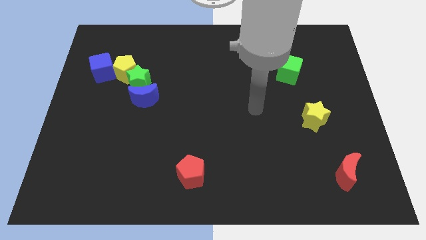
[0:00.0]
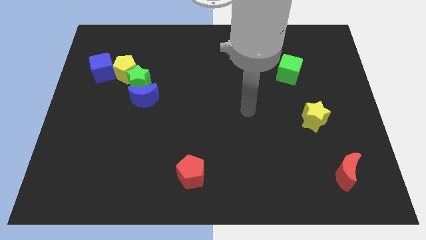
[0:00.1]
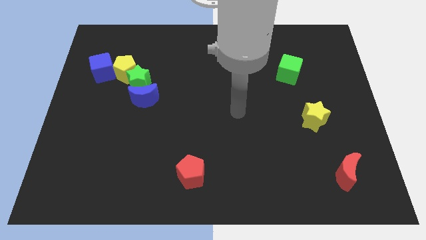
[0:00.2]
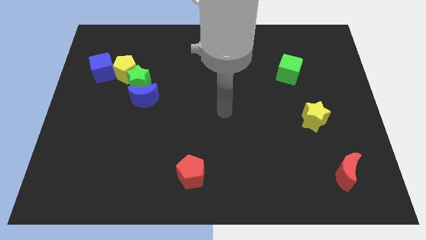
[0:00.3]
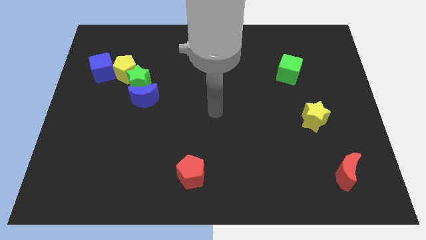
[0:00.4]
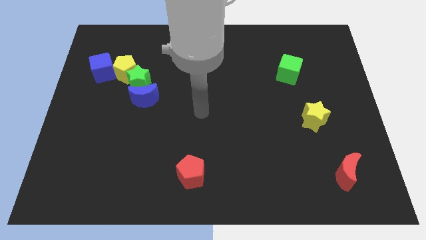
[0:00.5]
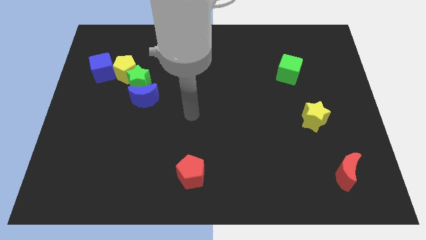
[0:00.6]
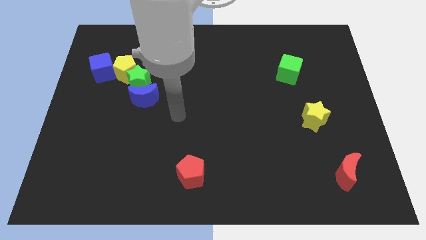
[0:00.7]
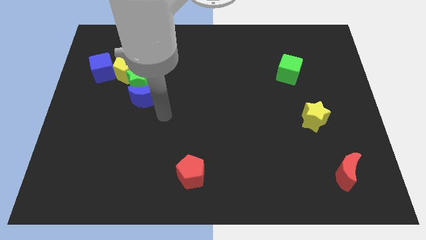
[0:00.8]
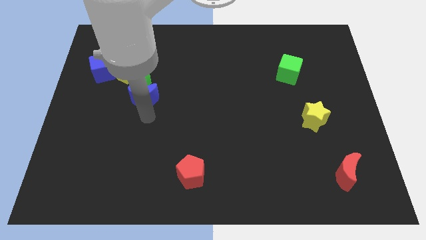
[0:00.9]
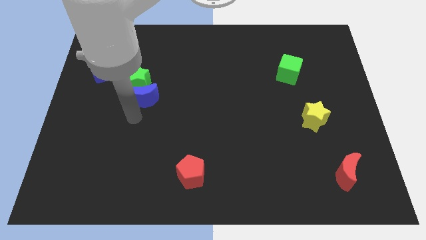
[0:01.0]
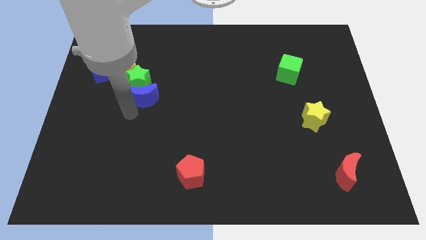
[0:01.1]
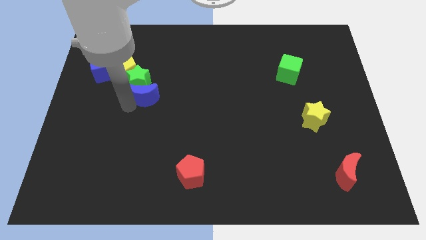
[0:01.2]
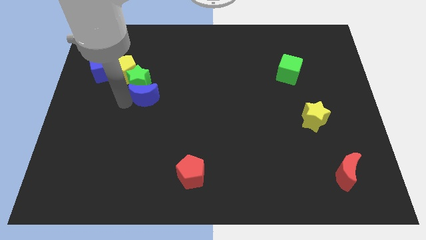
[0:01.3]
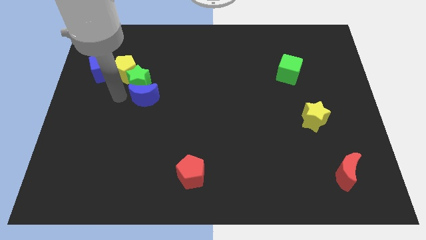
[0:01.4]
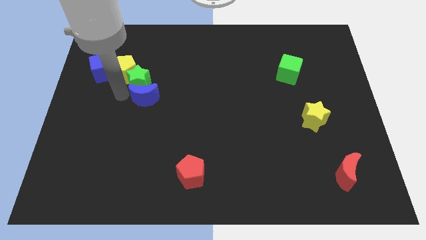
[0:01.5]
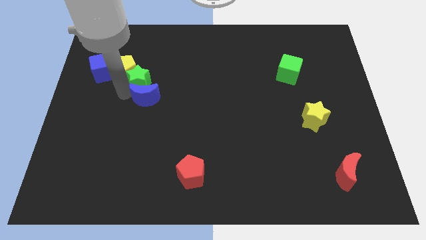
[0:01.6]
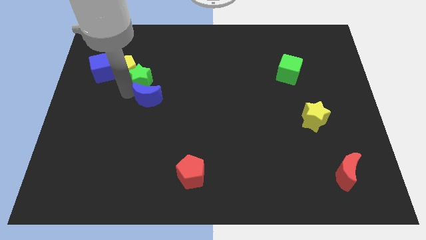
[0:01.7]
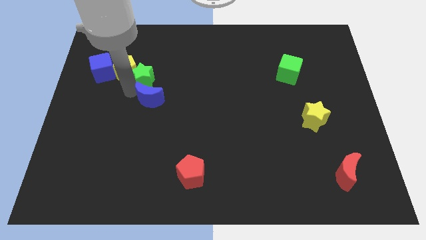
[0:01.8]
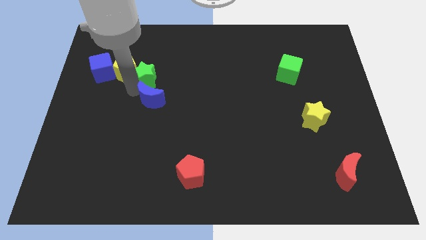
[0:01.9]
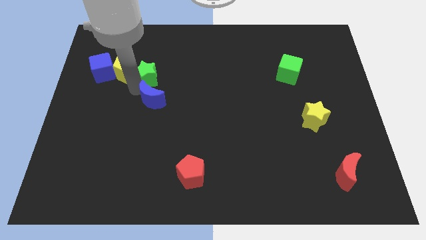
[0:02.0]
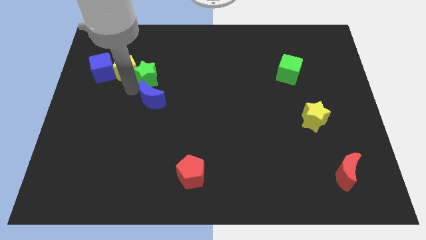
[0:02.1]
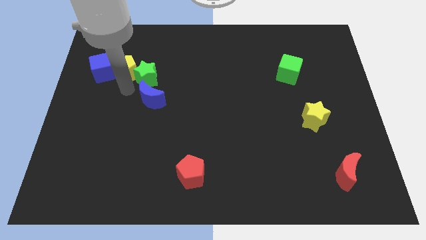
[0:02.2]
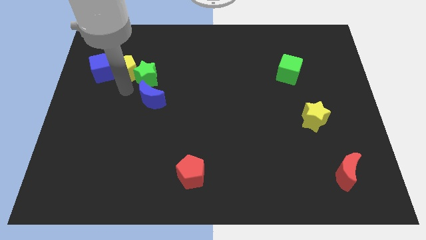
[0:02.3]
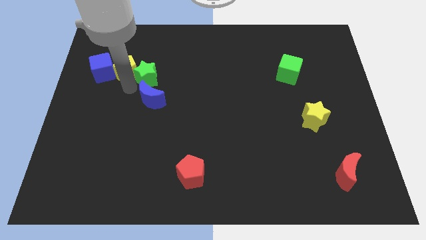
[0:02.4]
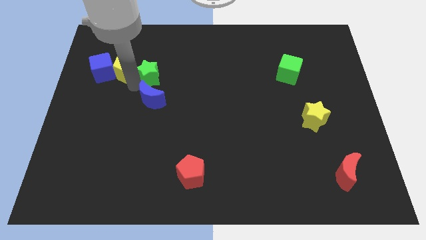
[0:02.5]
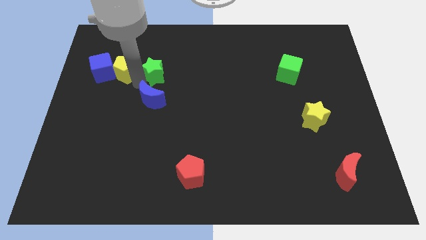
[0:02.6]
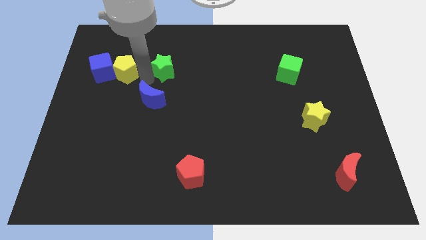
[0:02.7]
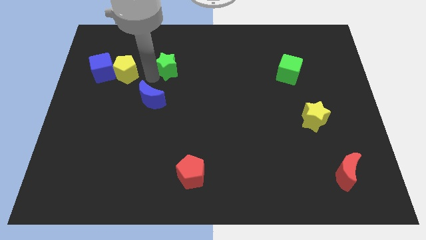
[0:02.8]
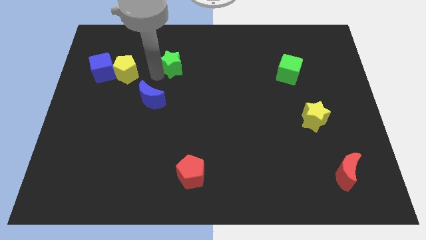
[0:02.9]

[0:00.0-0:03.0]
separate the green star from the yellow pentagon and blue moon

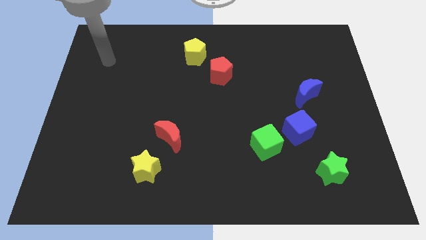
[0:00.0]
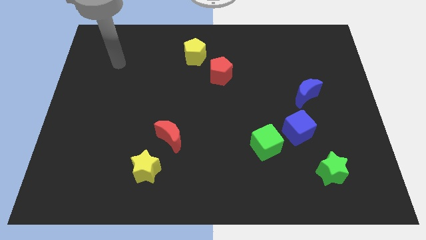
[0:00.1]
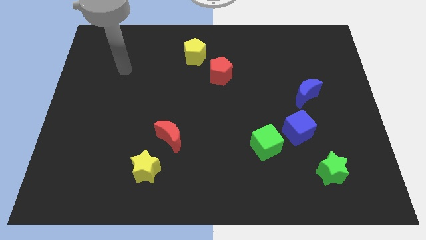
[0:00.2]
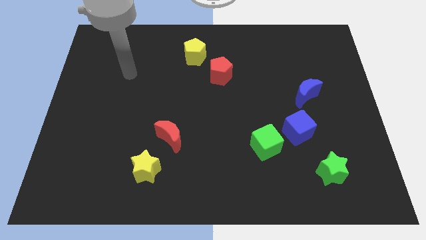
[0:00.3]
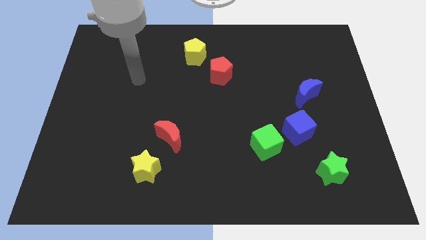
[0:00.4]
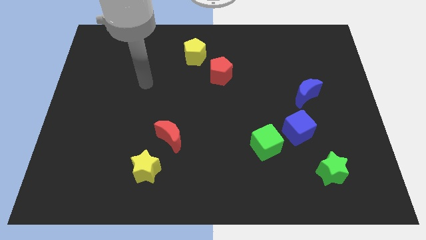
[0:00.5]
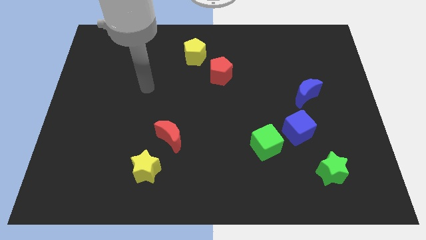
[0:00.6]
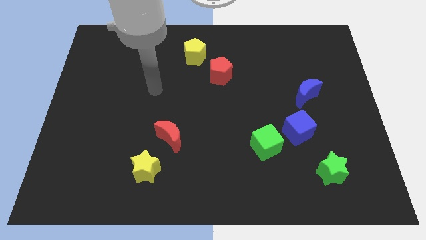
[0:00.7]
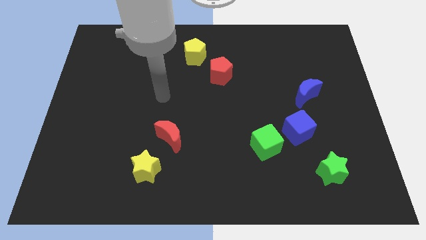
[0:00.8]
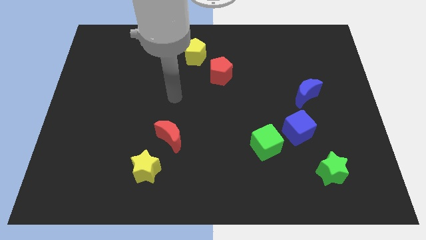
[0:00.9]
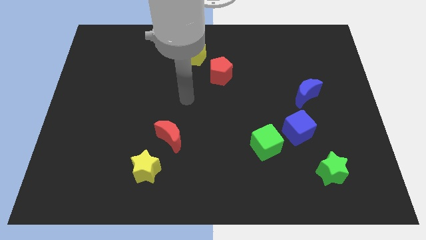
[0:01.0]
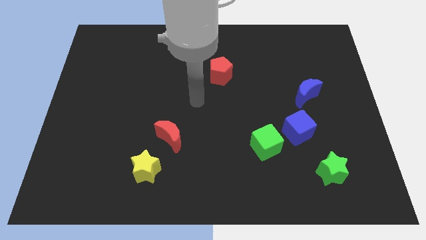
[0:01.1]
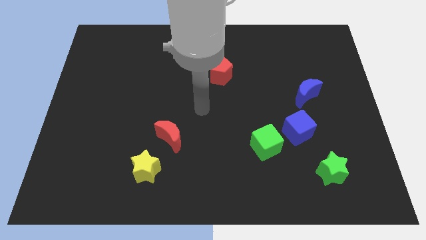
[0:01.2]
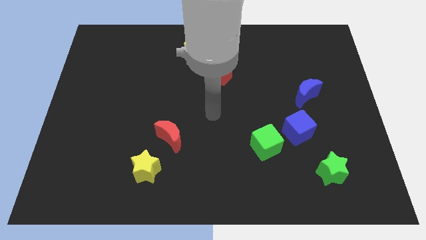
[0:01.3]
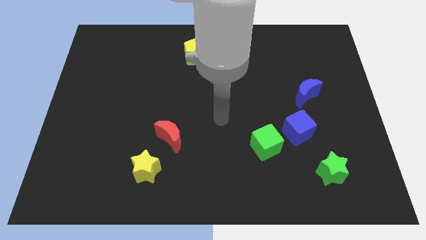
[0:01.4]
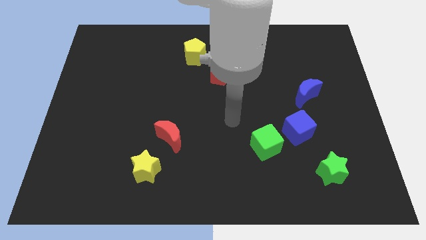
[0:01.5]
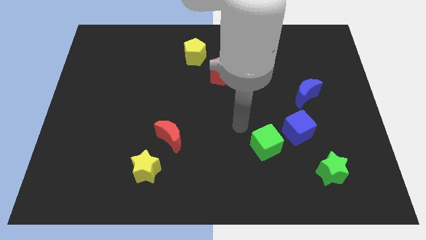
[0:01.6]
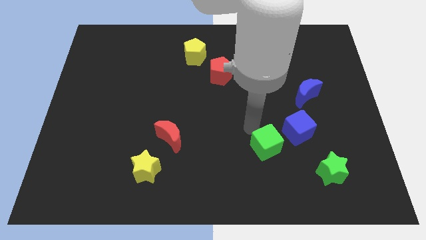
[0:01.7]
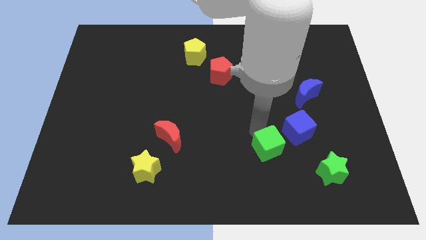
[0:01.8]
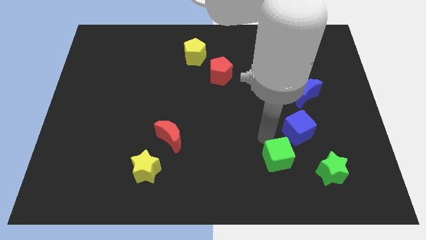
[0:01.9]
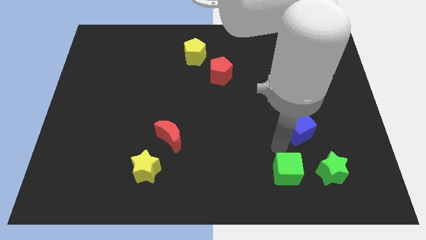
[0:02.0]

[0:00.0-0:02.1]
move the blue cube away from the green cube

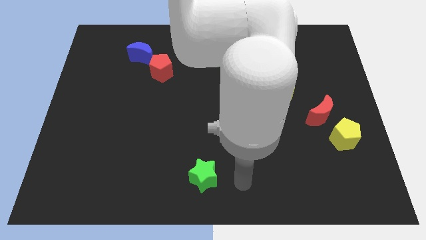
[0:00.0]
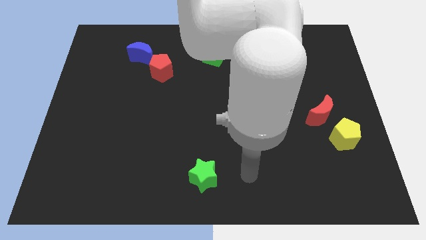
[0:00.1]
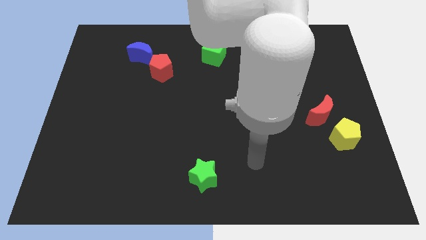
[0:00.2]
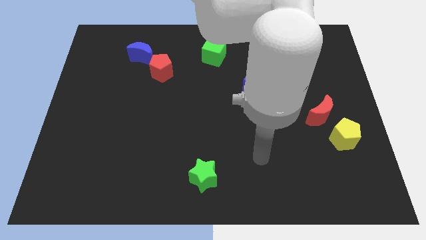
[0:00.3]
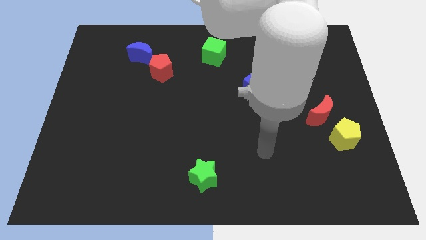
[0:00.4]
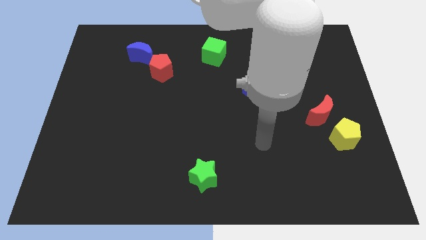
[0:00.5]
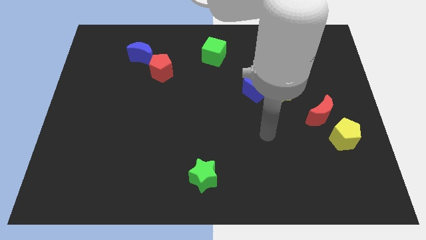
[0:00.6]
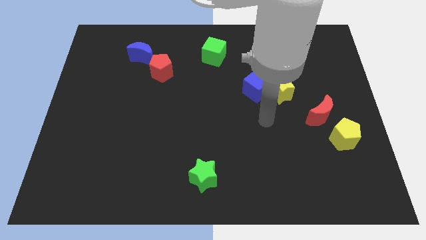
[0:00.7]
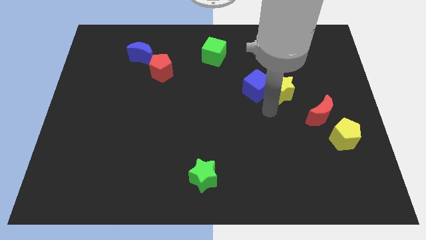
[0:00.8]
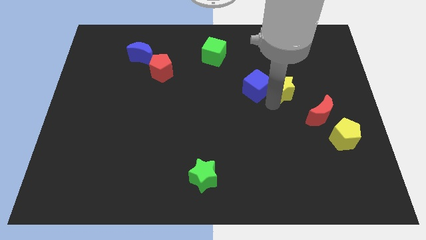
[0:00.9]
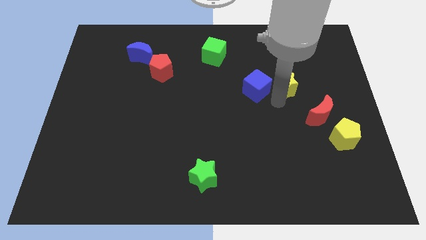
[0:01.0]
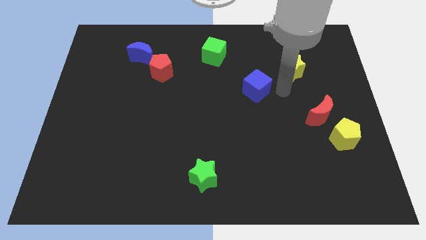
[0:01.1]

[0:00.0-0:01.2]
move the blue cube away from the yellow star

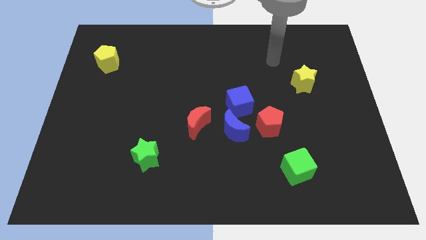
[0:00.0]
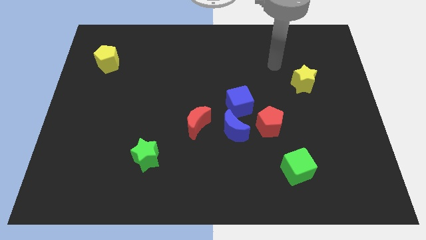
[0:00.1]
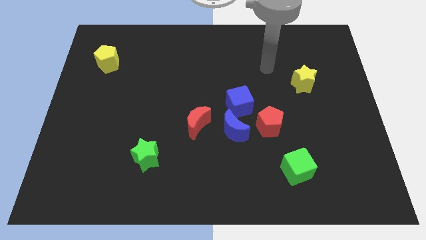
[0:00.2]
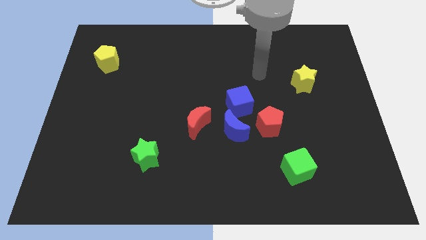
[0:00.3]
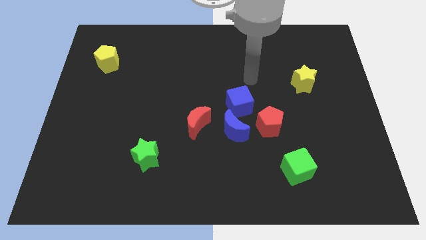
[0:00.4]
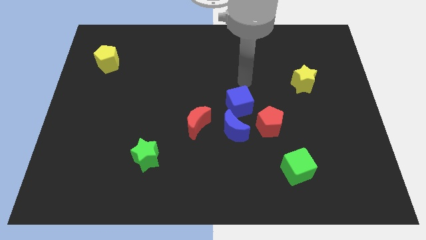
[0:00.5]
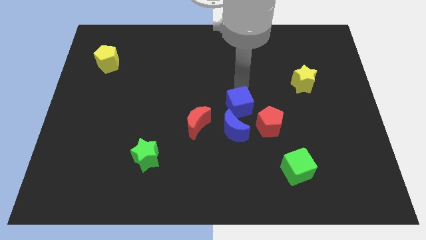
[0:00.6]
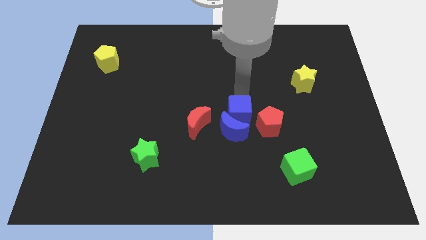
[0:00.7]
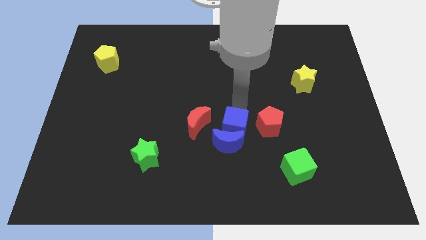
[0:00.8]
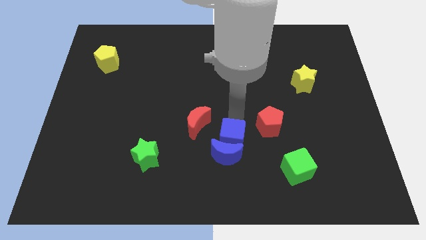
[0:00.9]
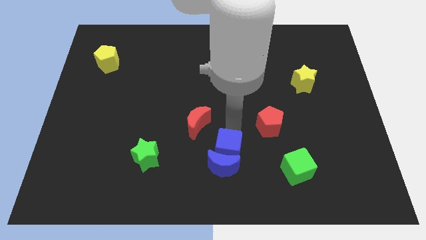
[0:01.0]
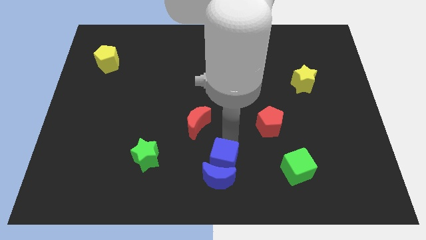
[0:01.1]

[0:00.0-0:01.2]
pull the blue moon apart from the group of blocks

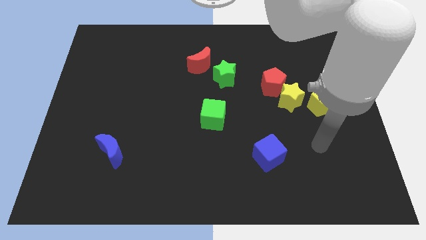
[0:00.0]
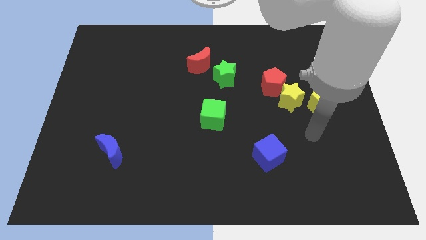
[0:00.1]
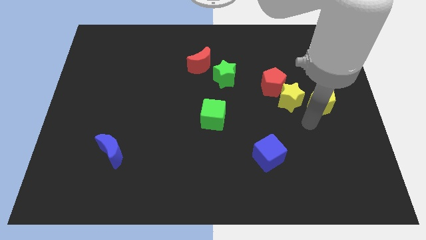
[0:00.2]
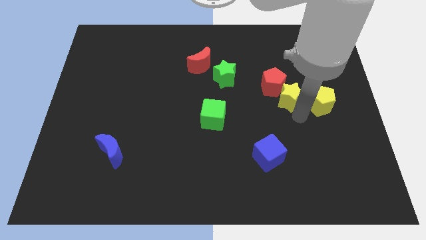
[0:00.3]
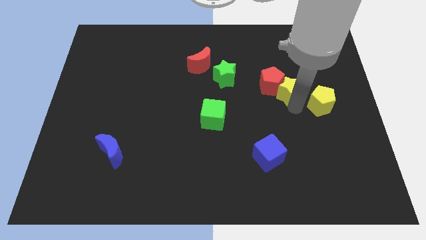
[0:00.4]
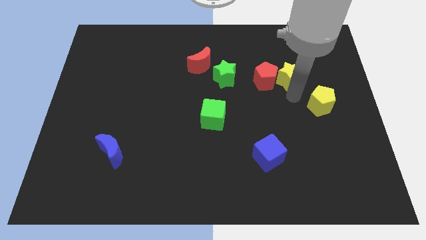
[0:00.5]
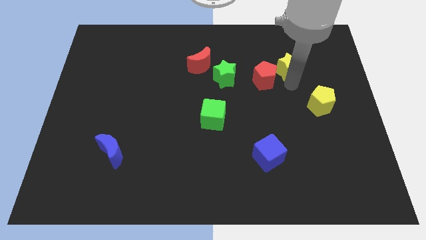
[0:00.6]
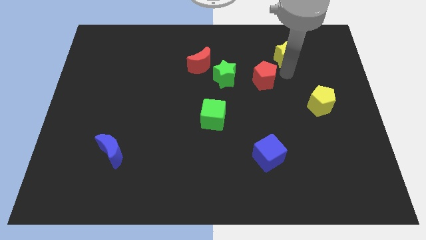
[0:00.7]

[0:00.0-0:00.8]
pull the red pentagon apart from the yellow star

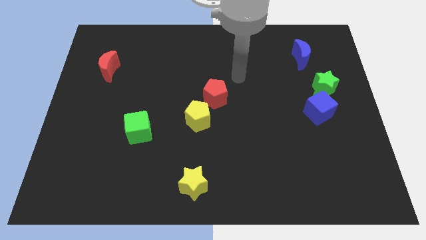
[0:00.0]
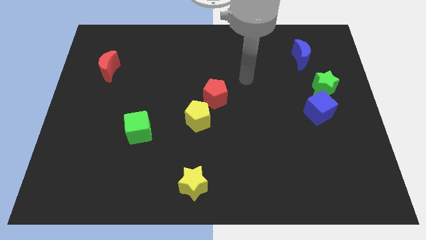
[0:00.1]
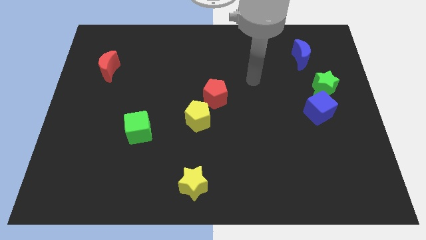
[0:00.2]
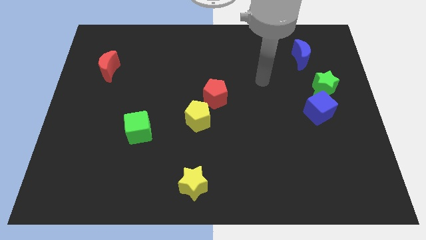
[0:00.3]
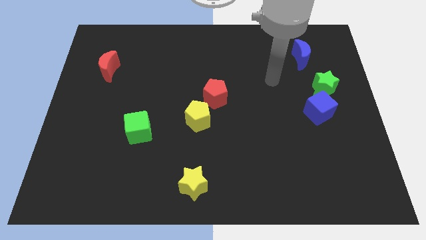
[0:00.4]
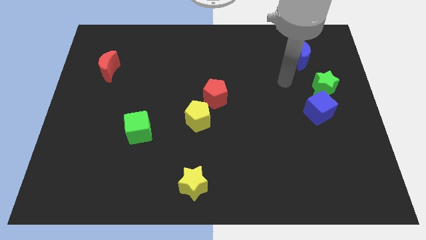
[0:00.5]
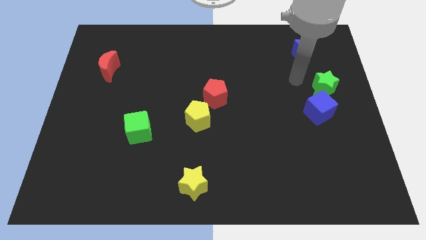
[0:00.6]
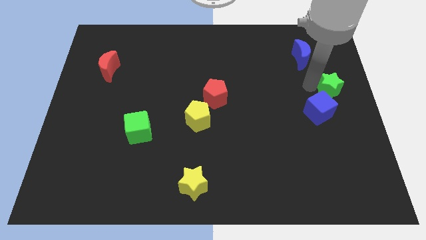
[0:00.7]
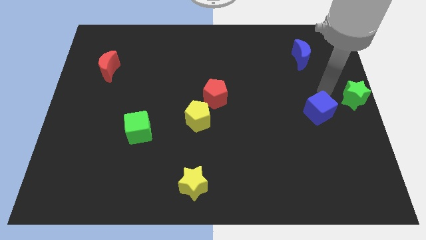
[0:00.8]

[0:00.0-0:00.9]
separate the blue cube from the green star

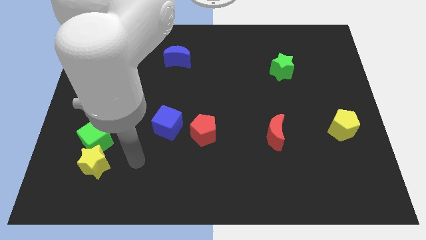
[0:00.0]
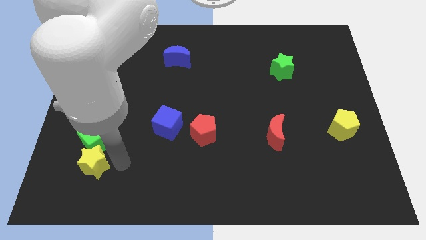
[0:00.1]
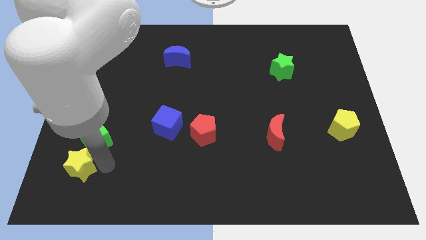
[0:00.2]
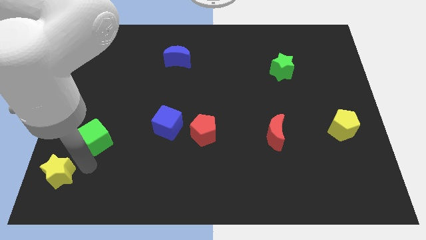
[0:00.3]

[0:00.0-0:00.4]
move the green cube away from the yellow star
